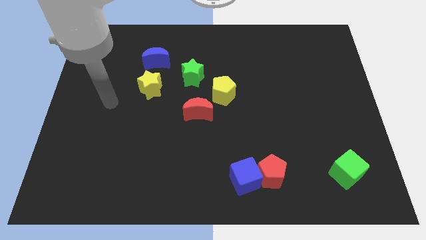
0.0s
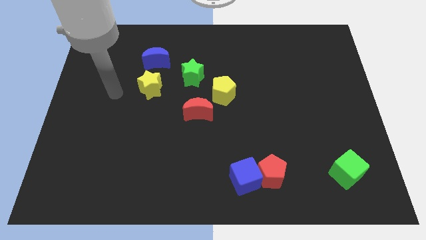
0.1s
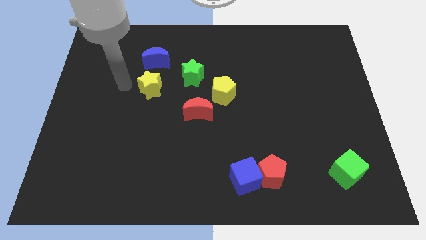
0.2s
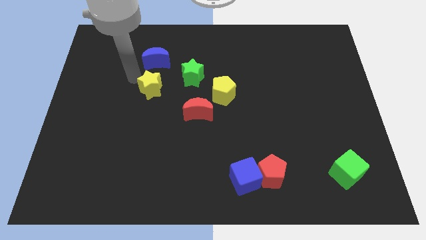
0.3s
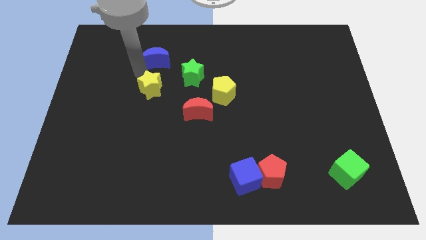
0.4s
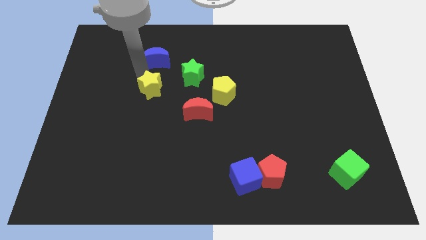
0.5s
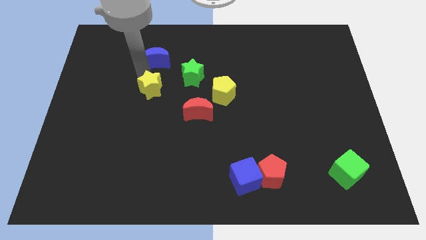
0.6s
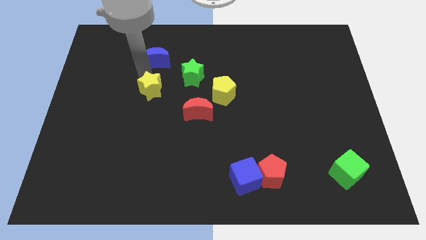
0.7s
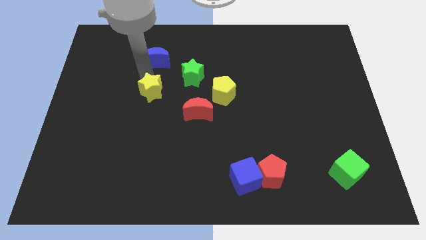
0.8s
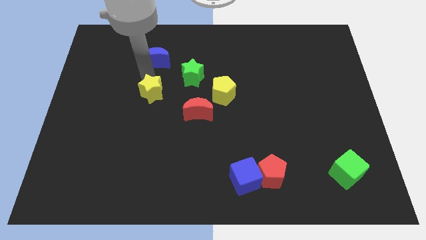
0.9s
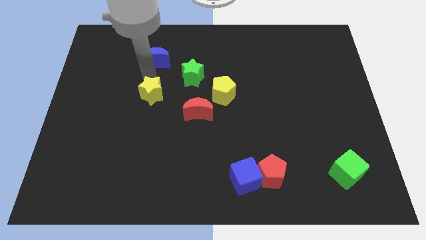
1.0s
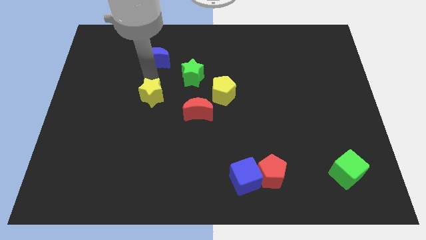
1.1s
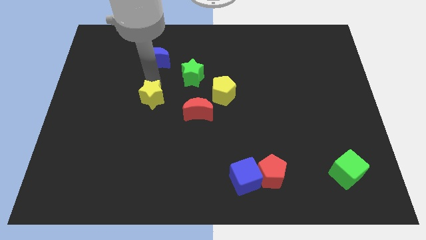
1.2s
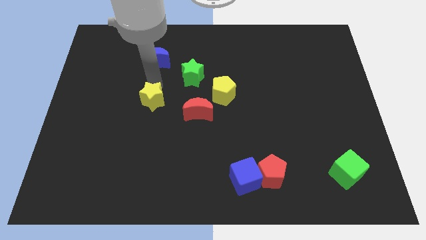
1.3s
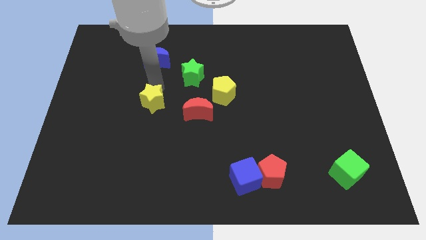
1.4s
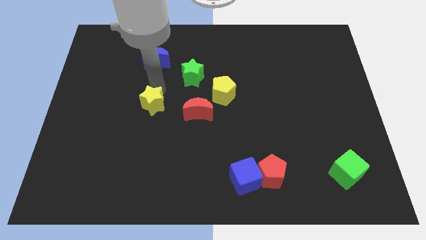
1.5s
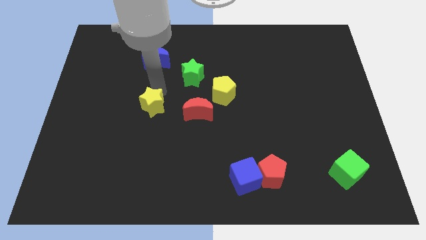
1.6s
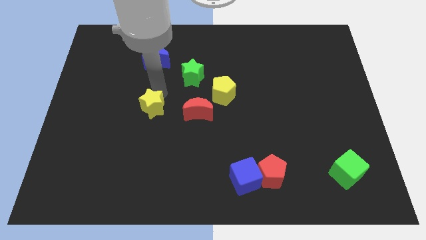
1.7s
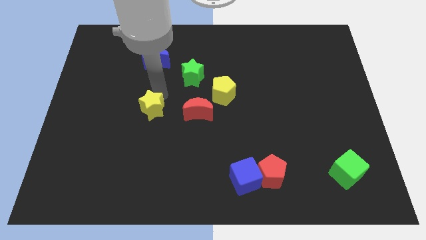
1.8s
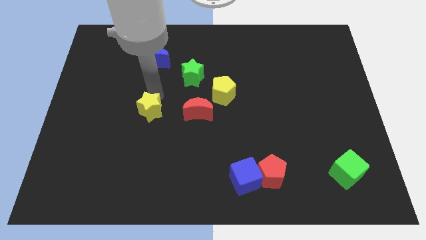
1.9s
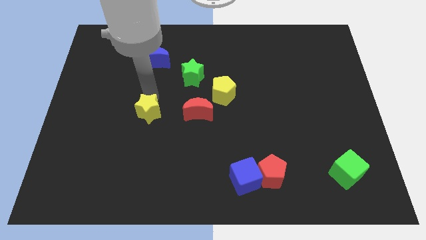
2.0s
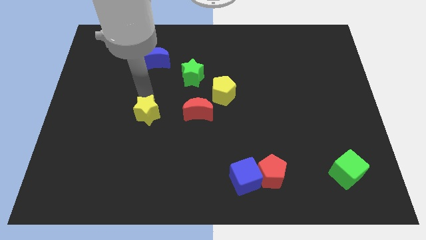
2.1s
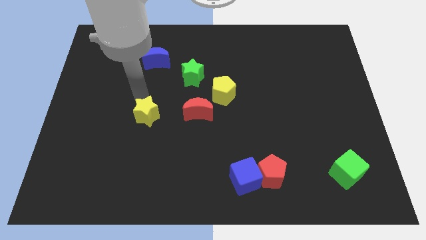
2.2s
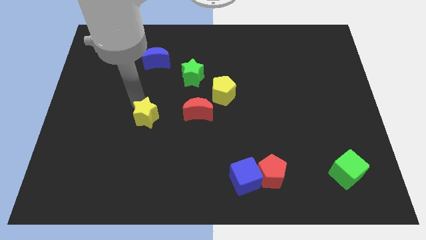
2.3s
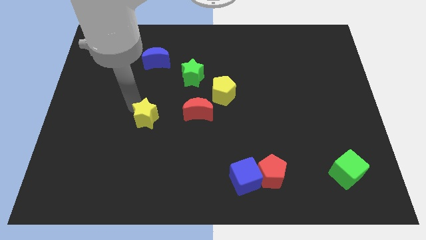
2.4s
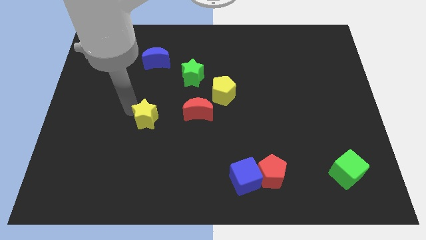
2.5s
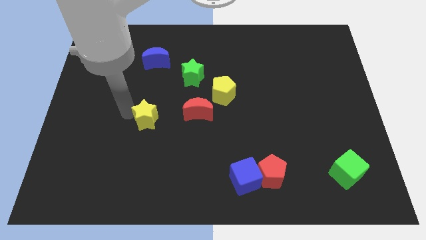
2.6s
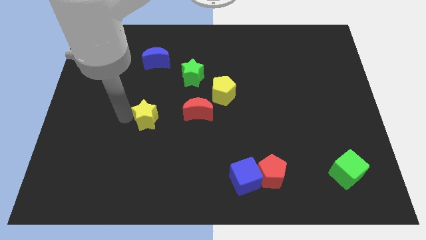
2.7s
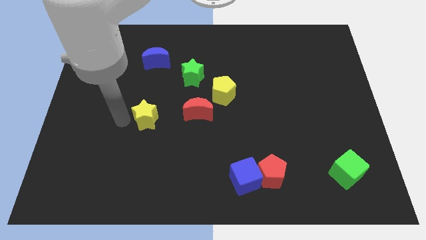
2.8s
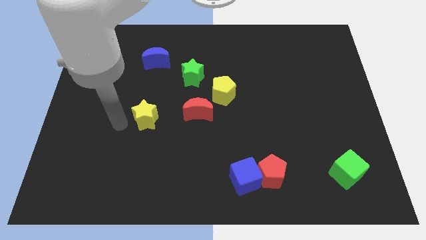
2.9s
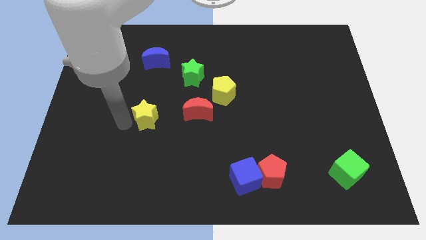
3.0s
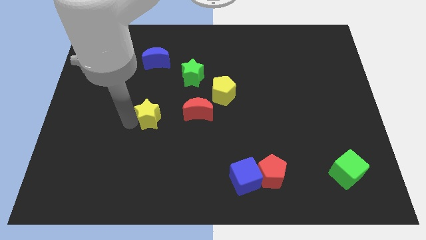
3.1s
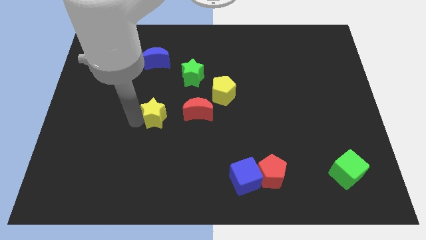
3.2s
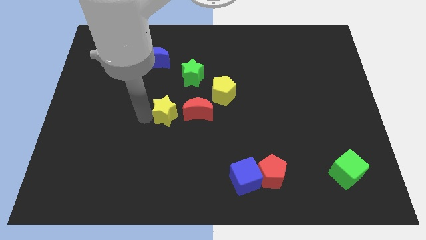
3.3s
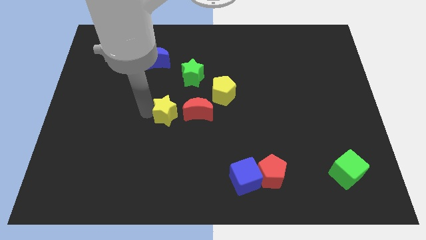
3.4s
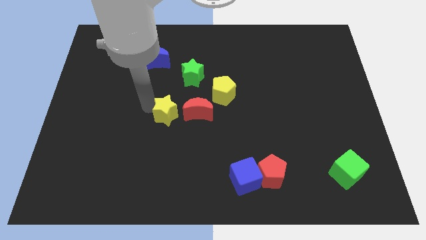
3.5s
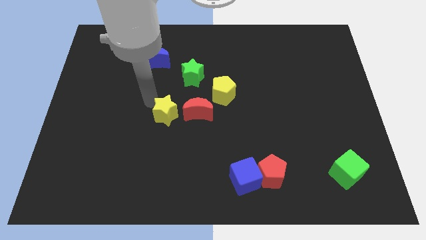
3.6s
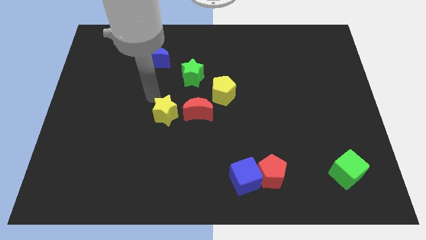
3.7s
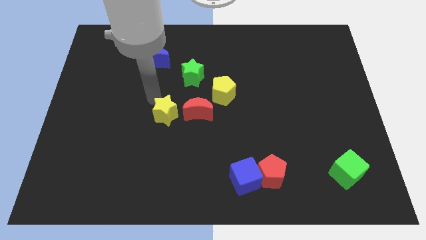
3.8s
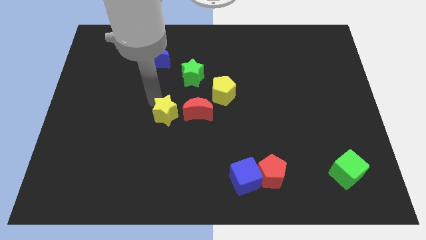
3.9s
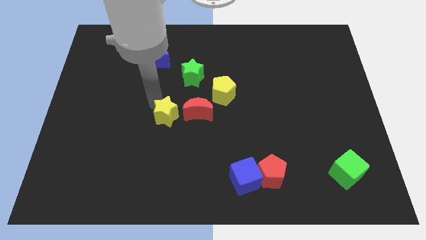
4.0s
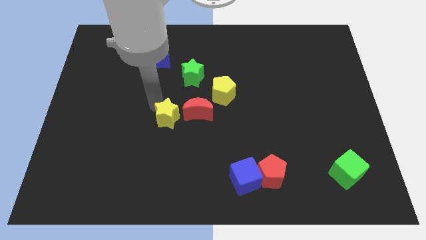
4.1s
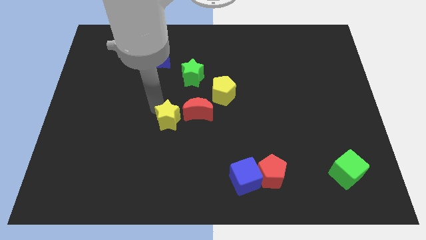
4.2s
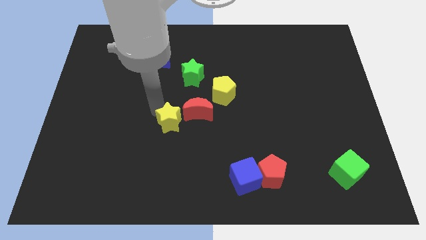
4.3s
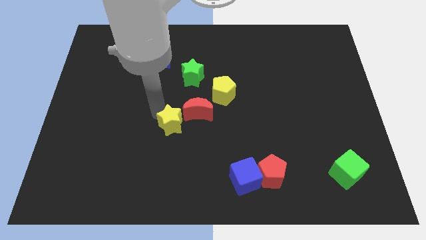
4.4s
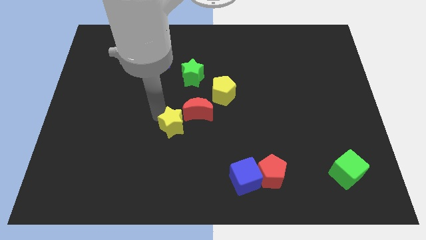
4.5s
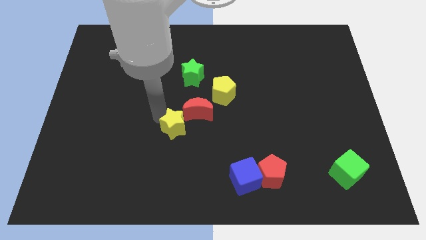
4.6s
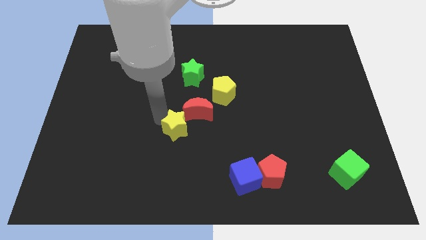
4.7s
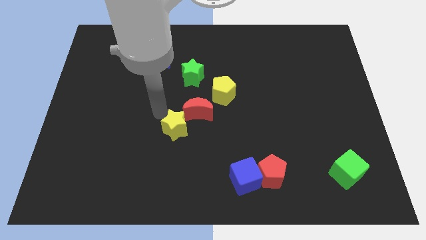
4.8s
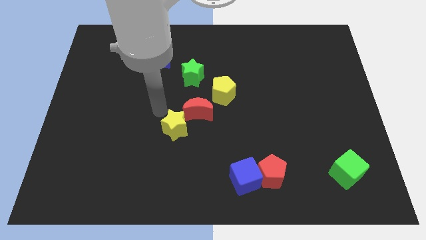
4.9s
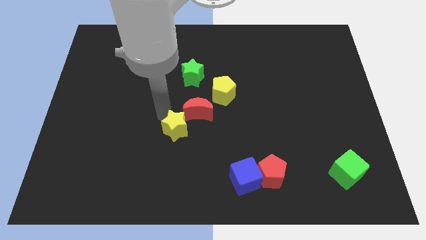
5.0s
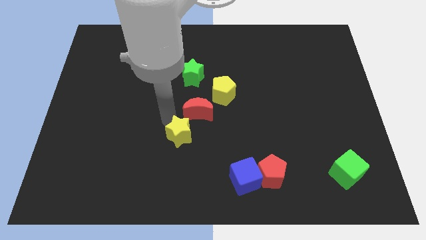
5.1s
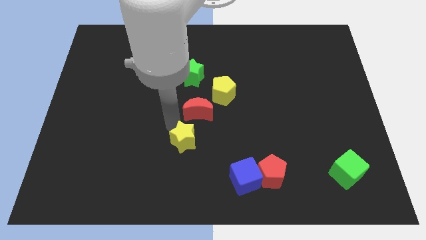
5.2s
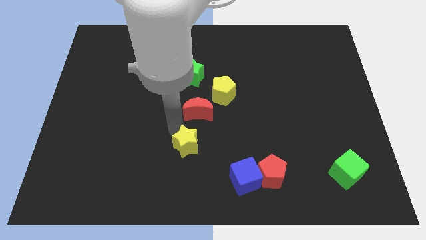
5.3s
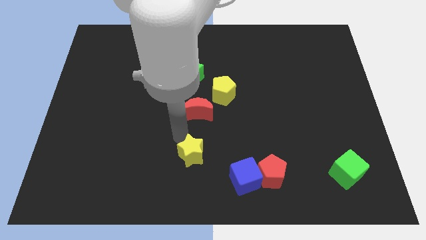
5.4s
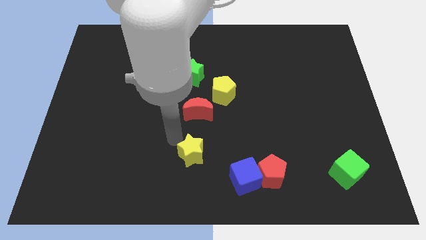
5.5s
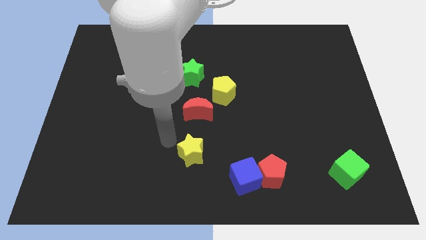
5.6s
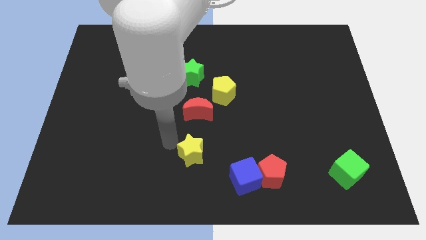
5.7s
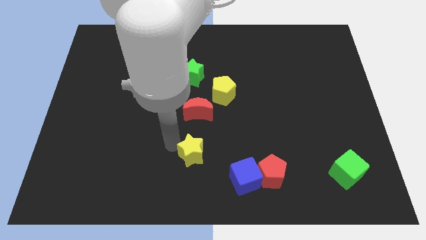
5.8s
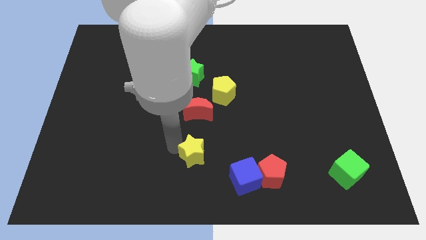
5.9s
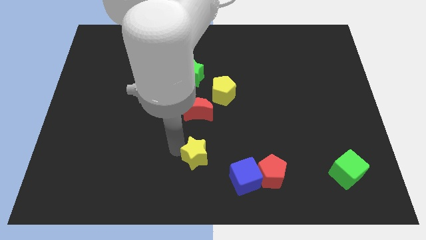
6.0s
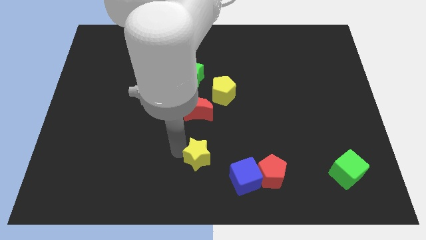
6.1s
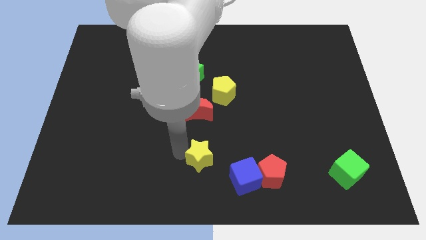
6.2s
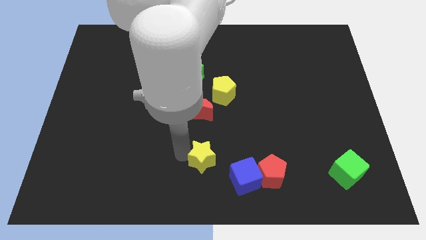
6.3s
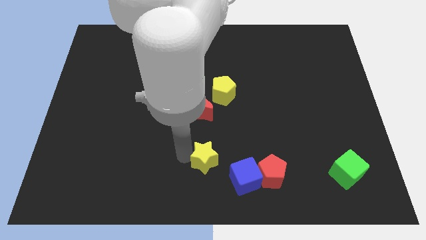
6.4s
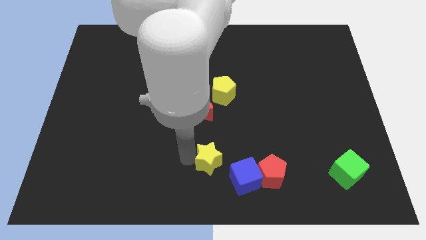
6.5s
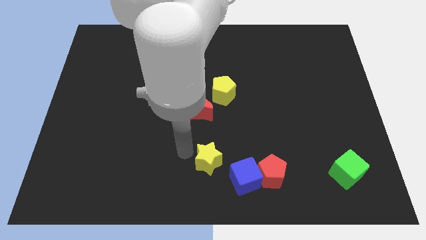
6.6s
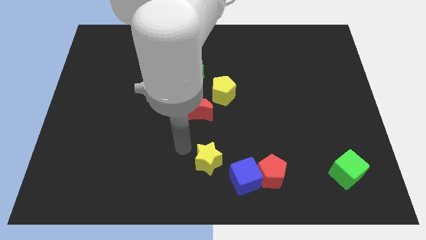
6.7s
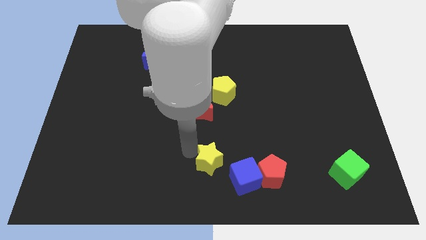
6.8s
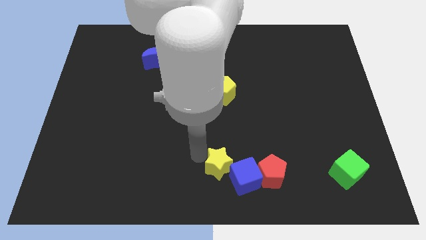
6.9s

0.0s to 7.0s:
push the yellow star towards the blue cube
